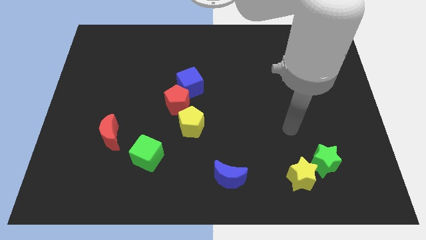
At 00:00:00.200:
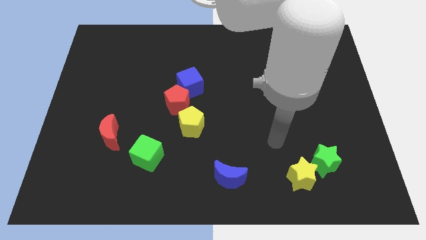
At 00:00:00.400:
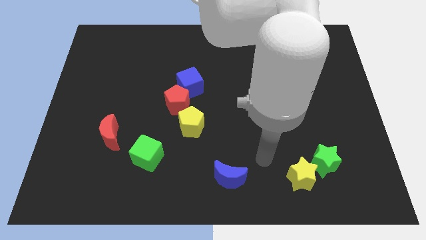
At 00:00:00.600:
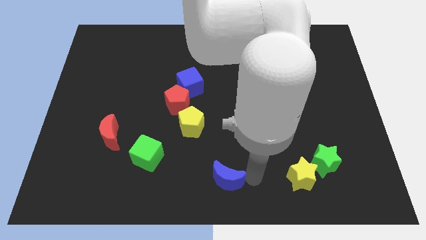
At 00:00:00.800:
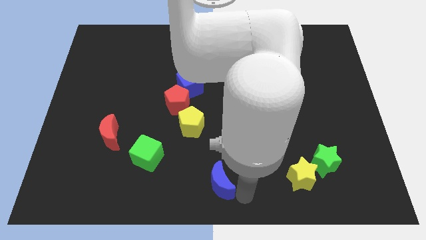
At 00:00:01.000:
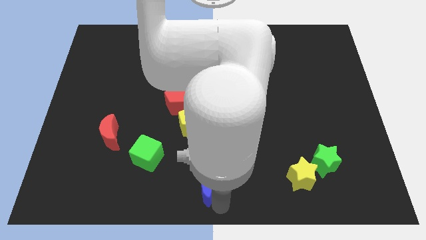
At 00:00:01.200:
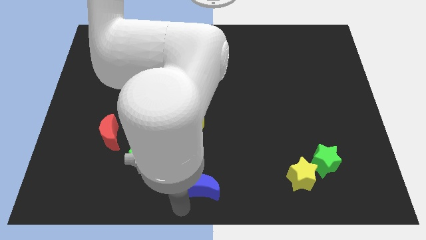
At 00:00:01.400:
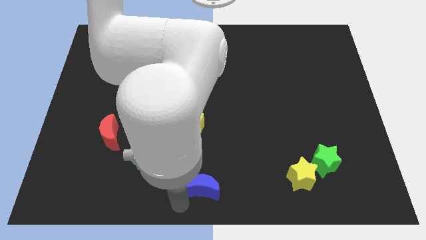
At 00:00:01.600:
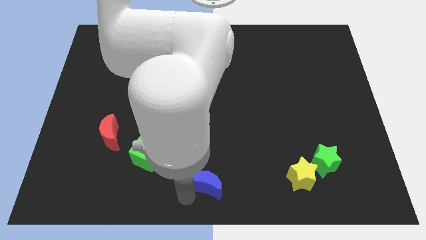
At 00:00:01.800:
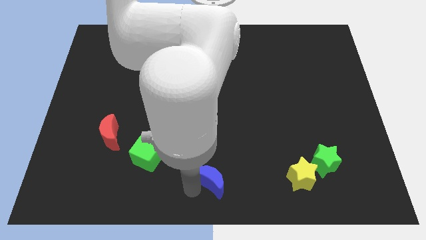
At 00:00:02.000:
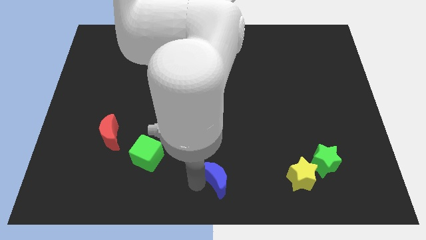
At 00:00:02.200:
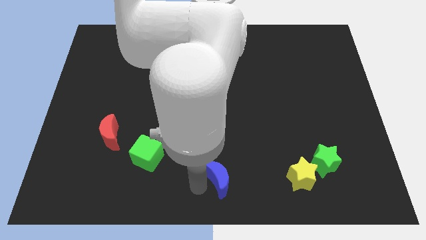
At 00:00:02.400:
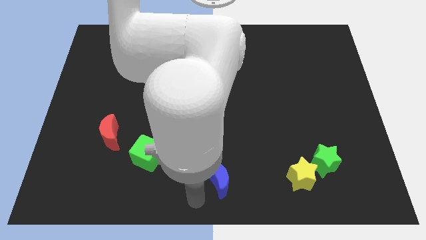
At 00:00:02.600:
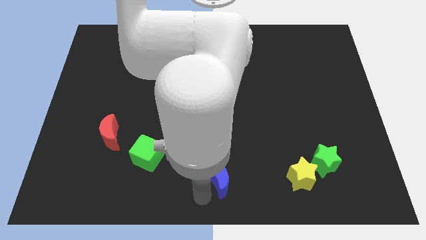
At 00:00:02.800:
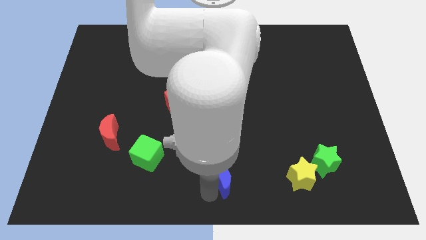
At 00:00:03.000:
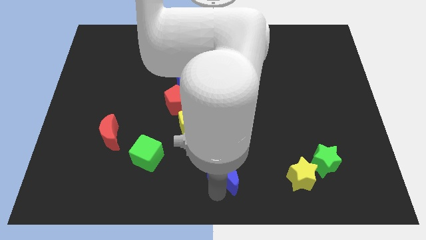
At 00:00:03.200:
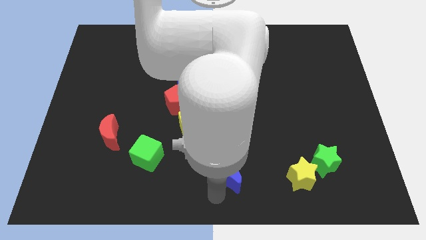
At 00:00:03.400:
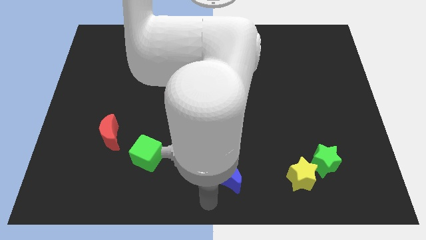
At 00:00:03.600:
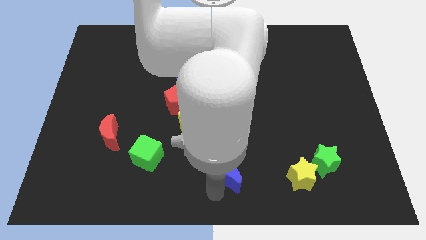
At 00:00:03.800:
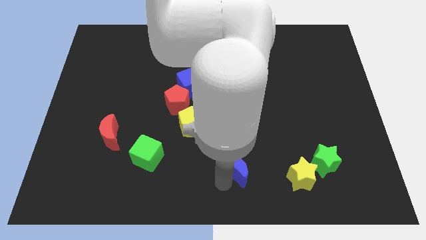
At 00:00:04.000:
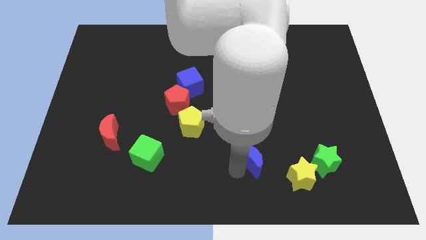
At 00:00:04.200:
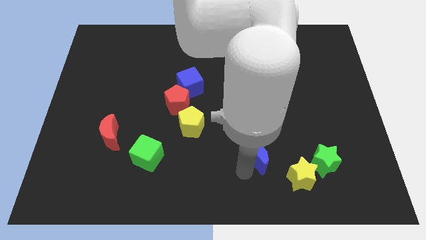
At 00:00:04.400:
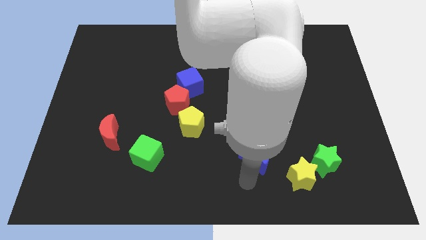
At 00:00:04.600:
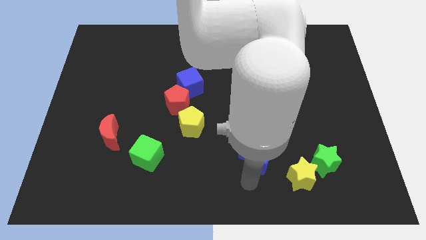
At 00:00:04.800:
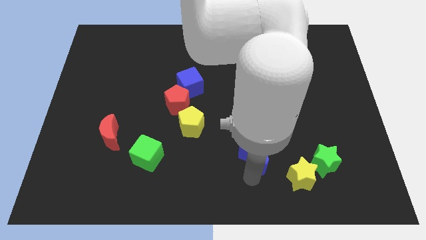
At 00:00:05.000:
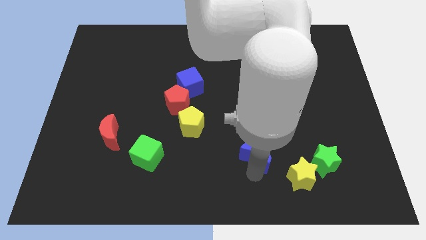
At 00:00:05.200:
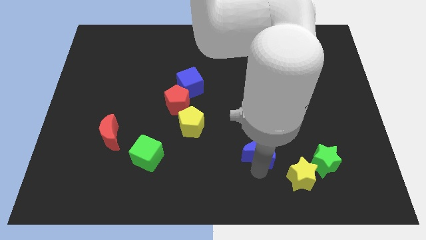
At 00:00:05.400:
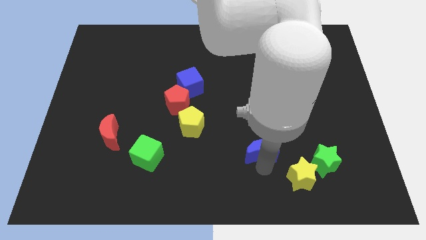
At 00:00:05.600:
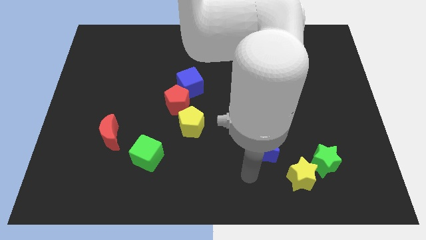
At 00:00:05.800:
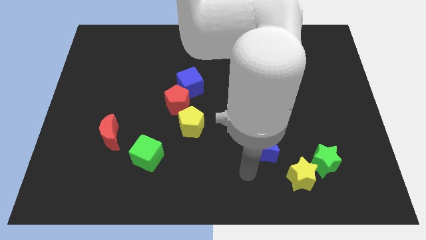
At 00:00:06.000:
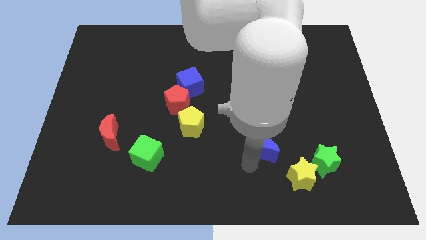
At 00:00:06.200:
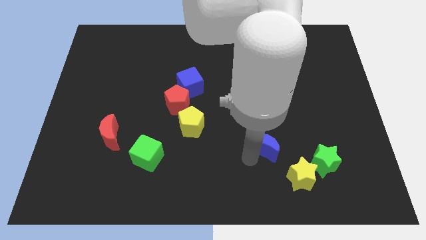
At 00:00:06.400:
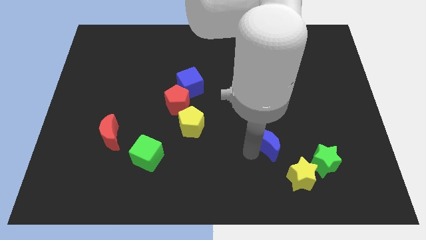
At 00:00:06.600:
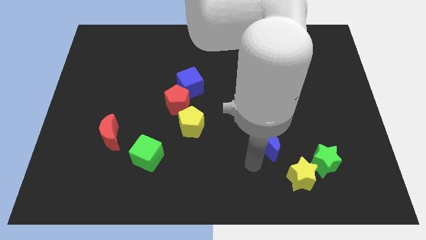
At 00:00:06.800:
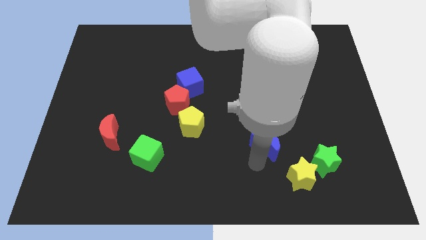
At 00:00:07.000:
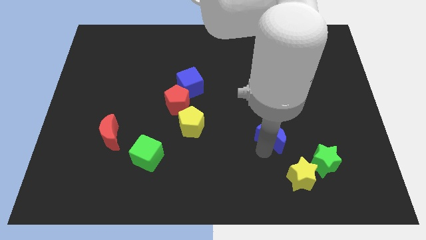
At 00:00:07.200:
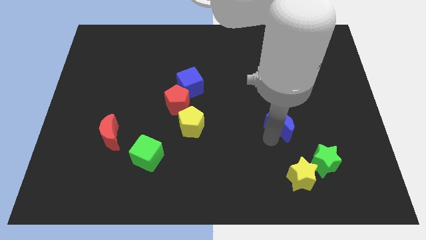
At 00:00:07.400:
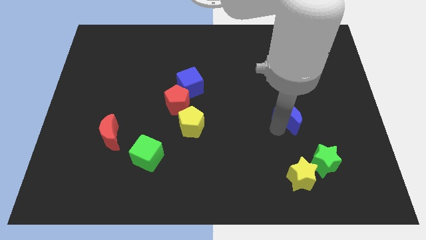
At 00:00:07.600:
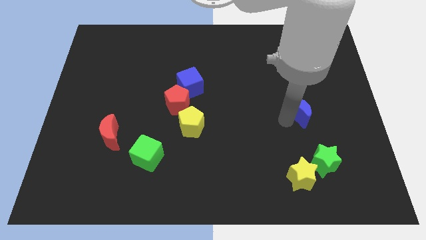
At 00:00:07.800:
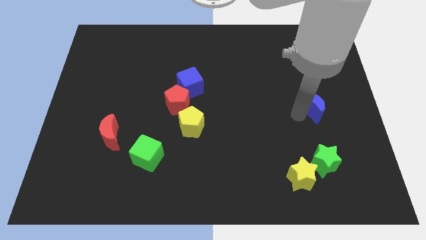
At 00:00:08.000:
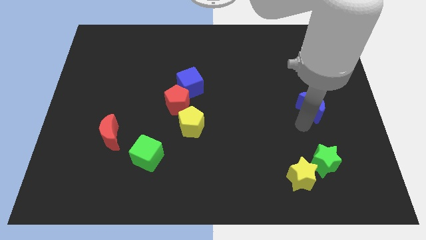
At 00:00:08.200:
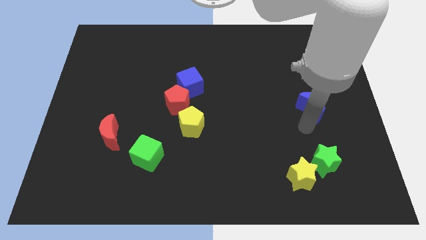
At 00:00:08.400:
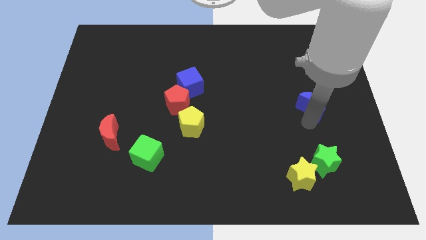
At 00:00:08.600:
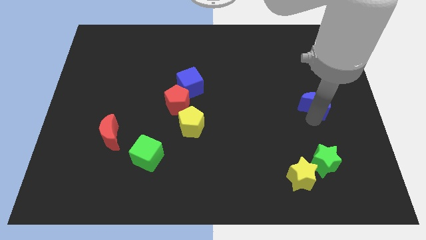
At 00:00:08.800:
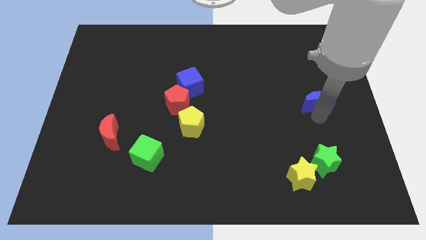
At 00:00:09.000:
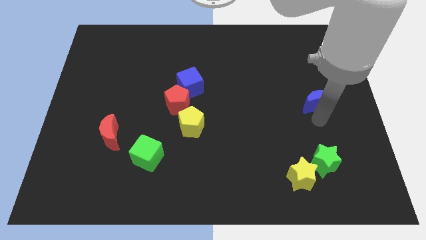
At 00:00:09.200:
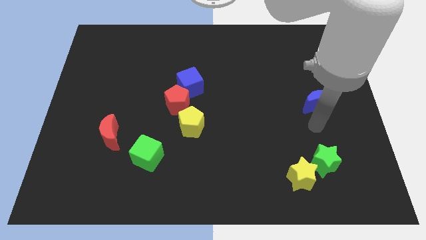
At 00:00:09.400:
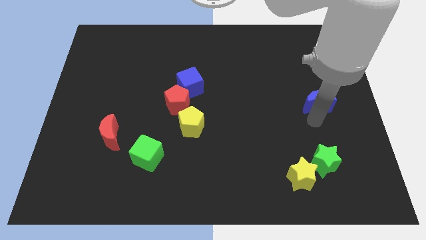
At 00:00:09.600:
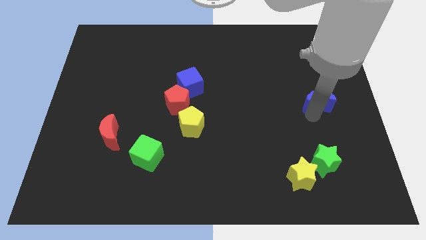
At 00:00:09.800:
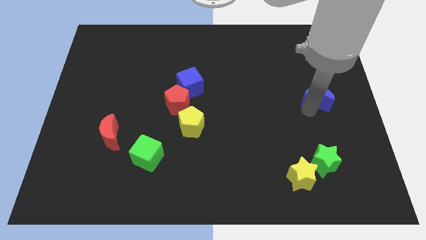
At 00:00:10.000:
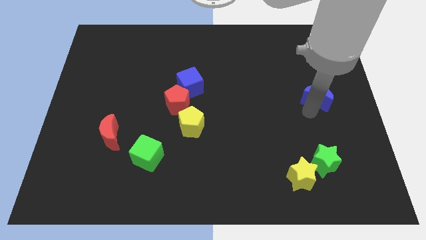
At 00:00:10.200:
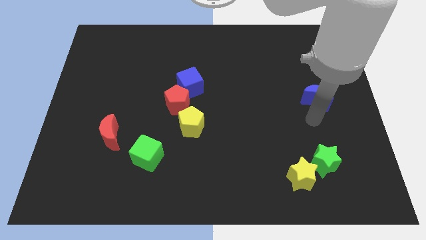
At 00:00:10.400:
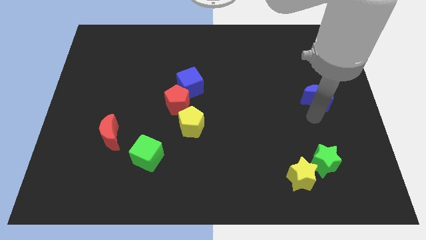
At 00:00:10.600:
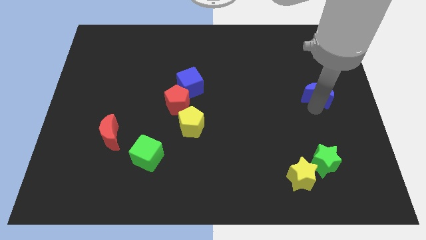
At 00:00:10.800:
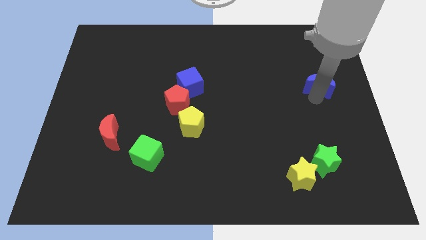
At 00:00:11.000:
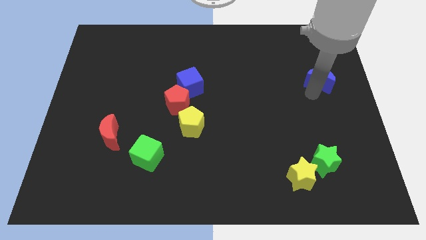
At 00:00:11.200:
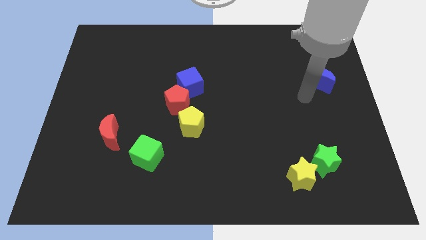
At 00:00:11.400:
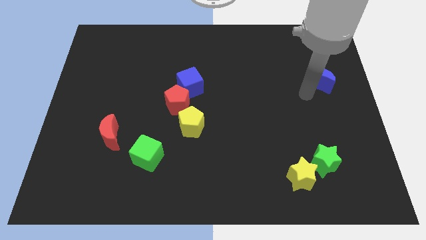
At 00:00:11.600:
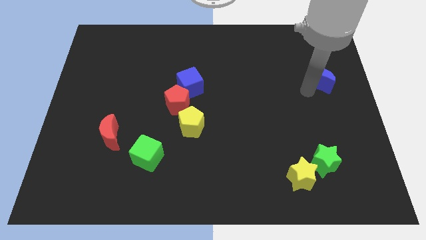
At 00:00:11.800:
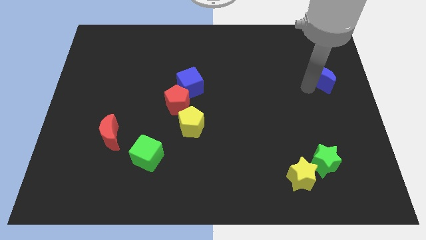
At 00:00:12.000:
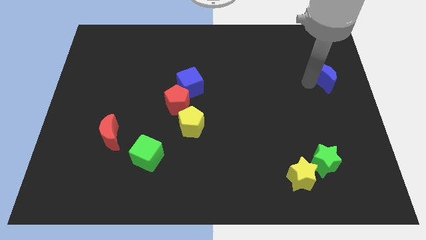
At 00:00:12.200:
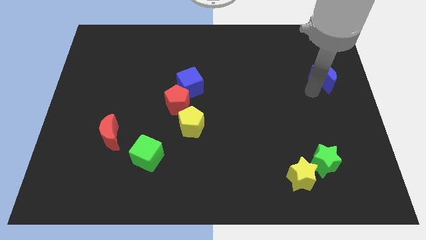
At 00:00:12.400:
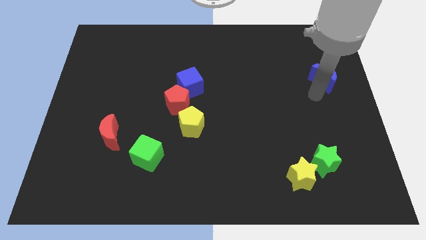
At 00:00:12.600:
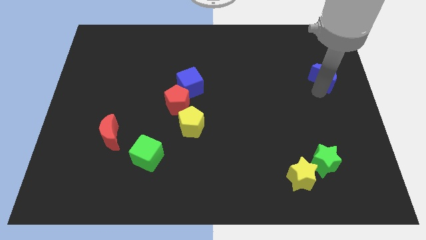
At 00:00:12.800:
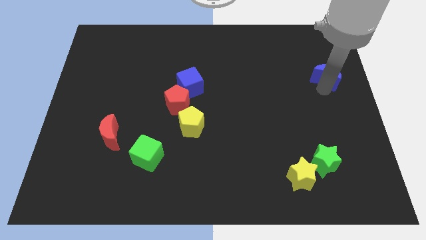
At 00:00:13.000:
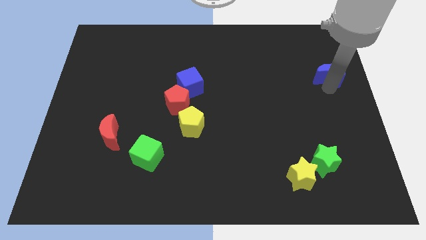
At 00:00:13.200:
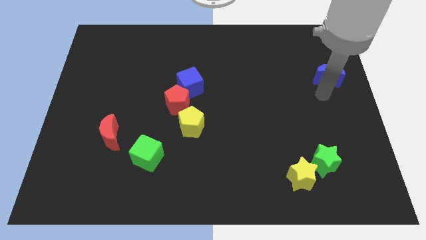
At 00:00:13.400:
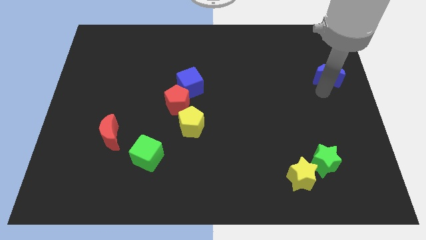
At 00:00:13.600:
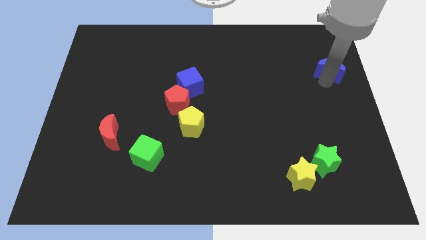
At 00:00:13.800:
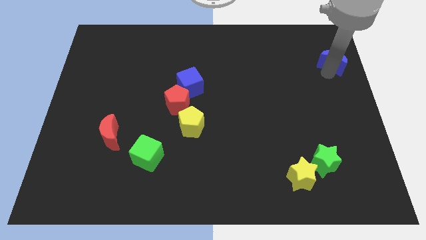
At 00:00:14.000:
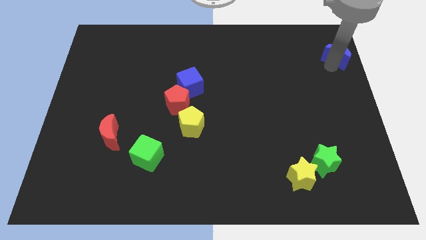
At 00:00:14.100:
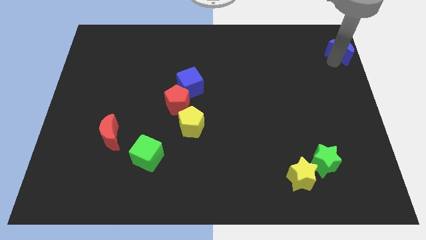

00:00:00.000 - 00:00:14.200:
move the blue moon to the top right of the board
